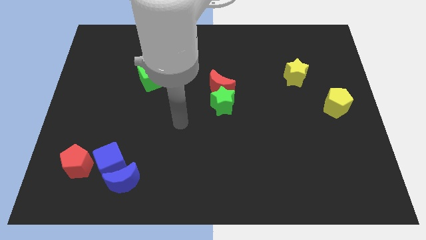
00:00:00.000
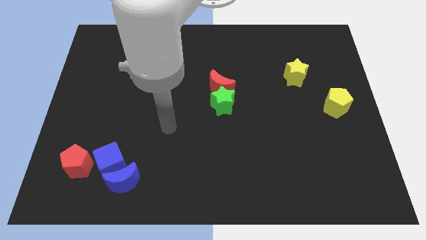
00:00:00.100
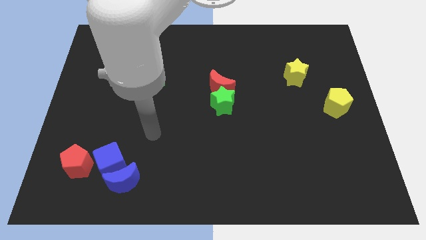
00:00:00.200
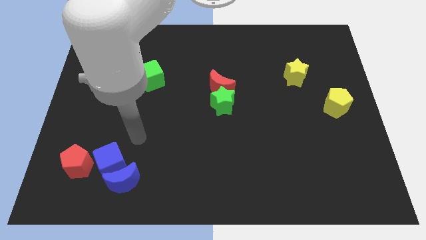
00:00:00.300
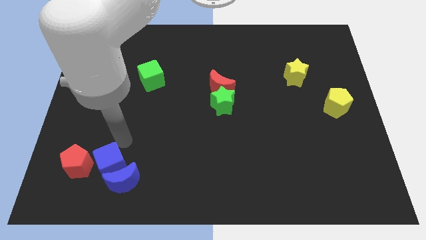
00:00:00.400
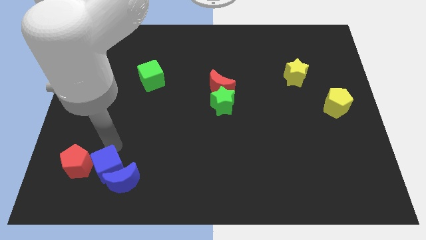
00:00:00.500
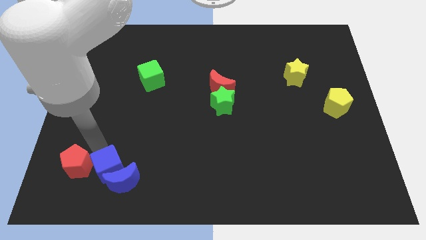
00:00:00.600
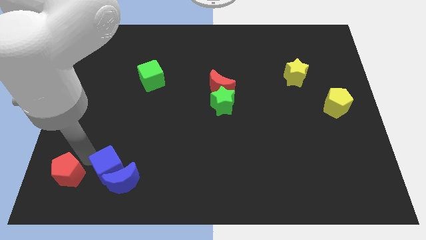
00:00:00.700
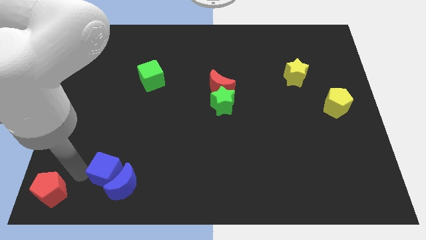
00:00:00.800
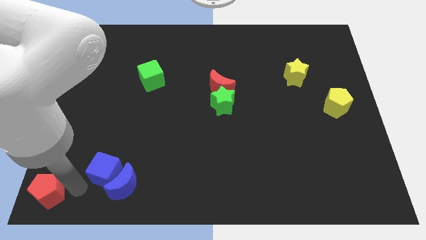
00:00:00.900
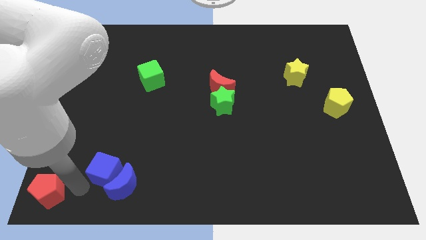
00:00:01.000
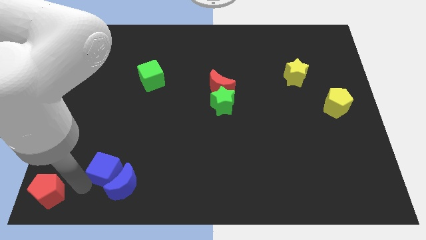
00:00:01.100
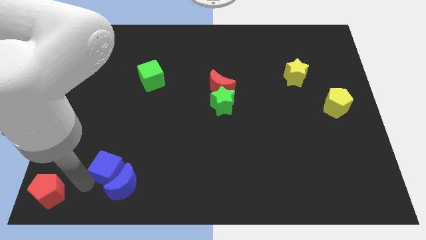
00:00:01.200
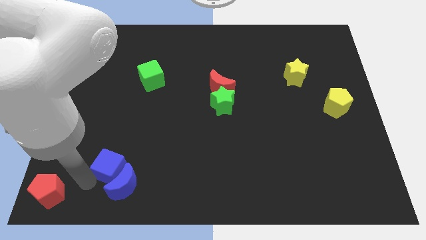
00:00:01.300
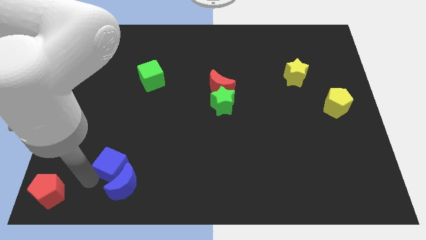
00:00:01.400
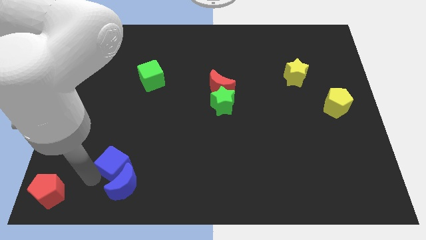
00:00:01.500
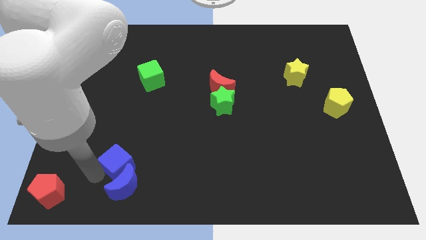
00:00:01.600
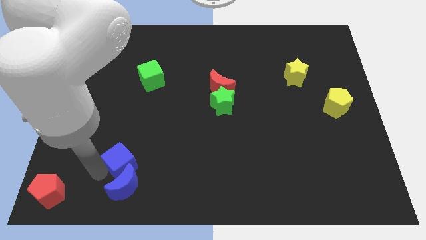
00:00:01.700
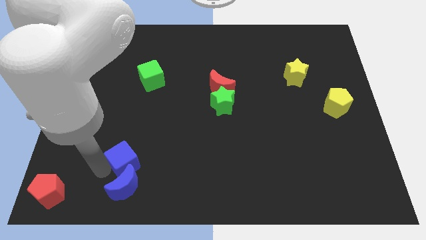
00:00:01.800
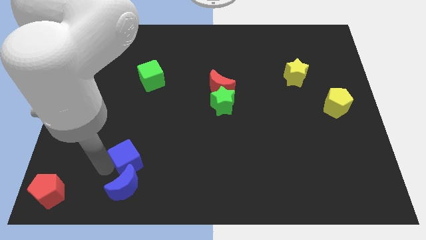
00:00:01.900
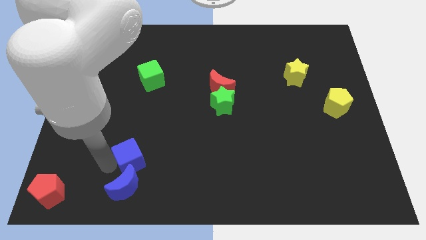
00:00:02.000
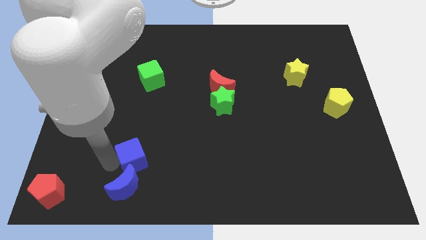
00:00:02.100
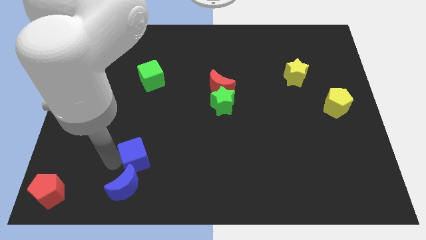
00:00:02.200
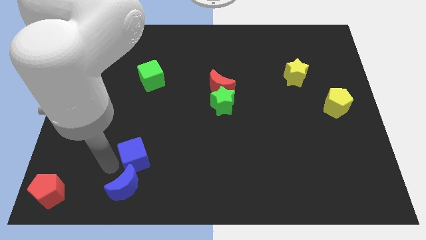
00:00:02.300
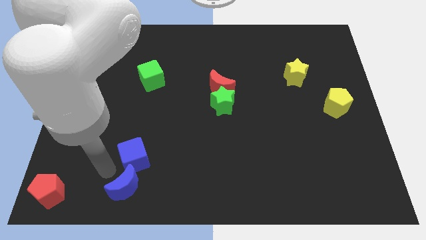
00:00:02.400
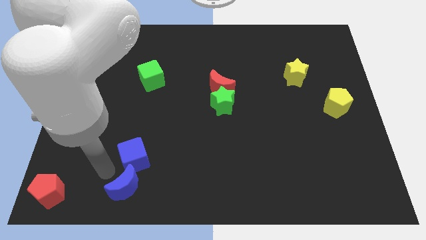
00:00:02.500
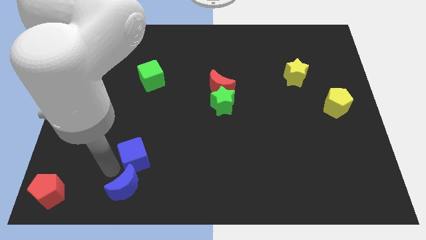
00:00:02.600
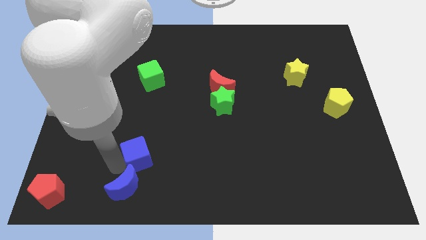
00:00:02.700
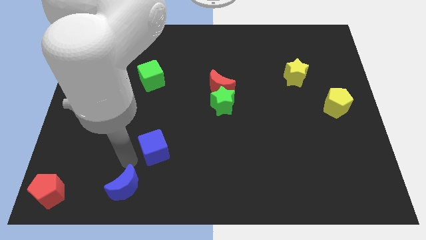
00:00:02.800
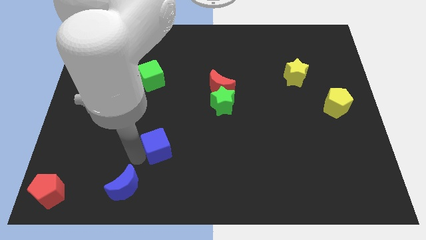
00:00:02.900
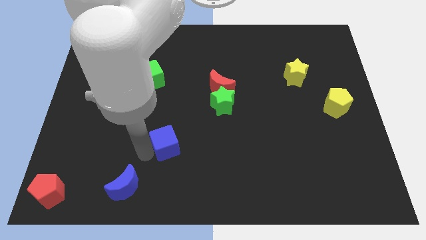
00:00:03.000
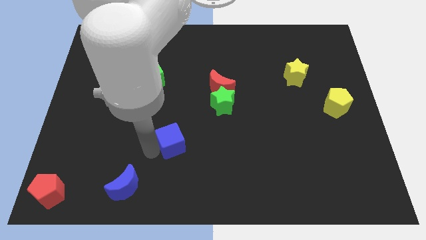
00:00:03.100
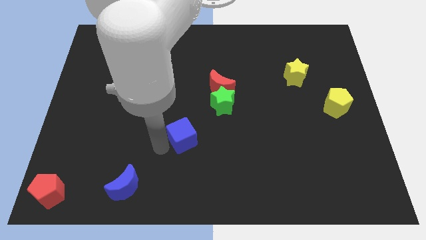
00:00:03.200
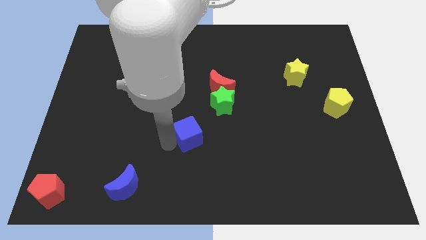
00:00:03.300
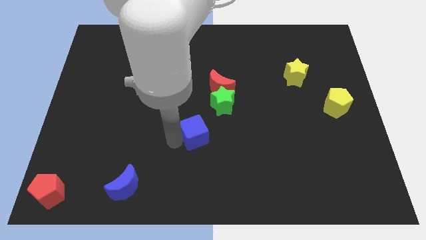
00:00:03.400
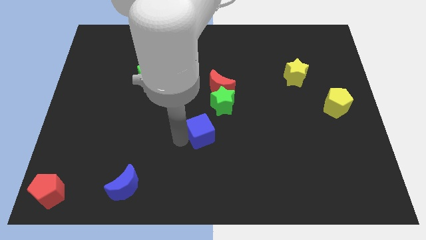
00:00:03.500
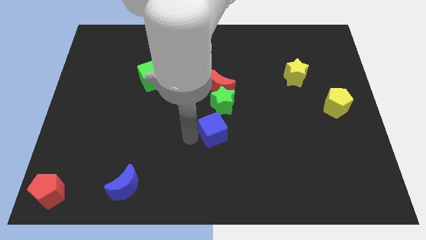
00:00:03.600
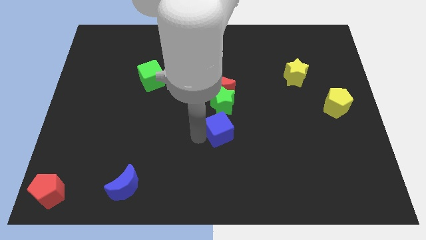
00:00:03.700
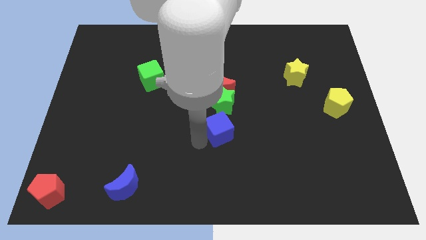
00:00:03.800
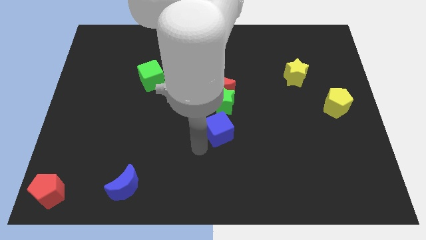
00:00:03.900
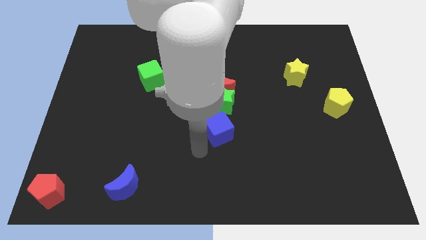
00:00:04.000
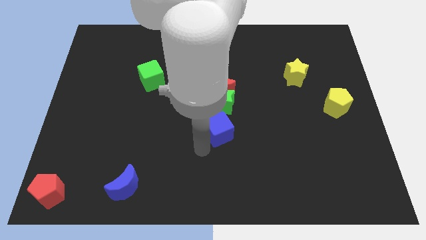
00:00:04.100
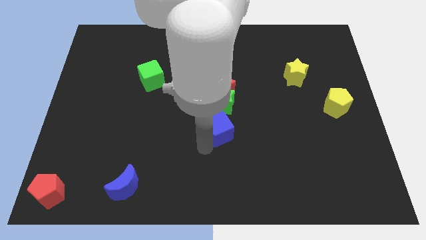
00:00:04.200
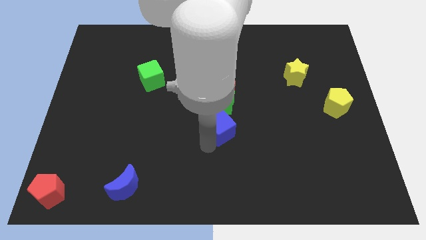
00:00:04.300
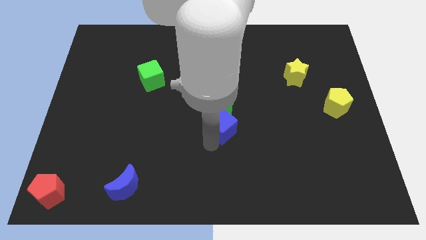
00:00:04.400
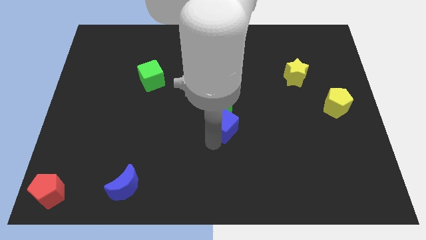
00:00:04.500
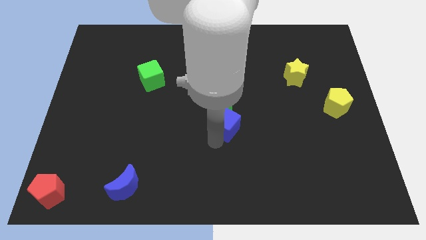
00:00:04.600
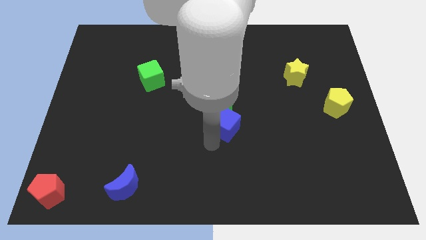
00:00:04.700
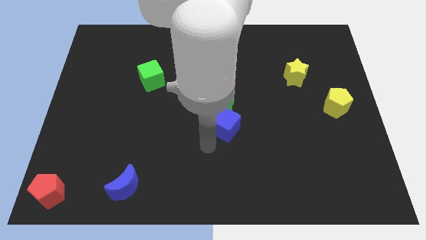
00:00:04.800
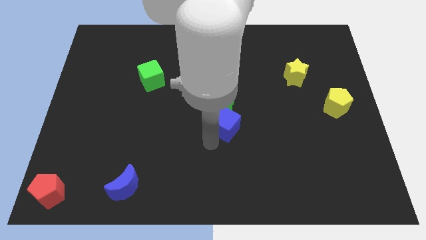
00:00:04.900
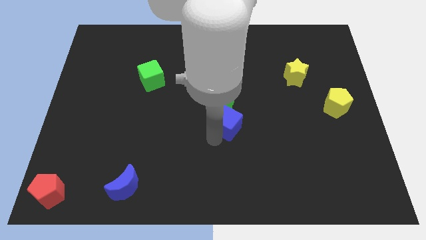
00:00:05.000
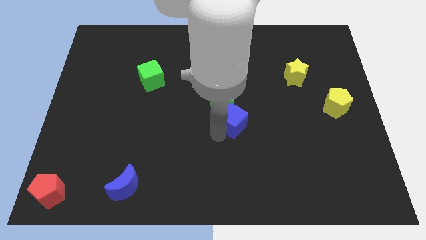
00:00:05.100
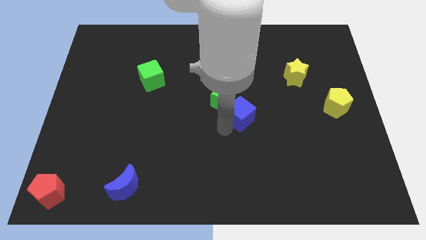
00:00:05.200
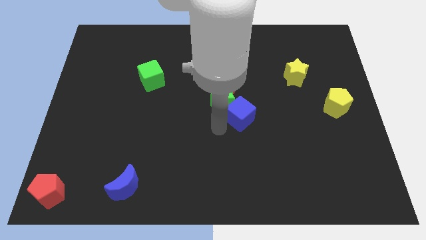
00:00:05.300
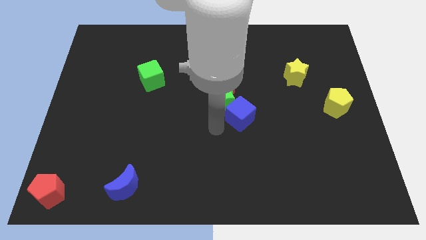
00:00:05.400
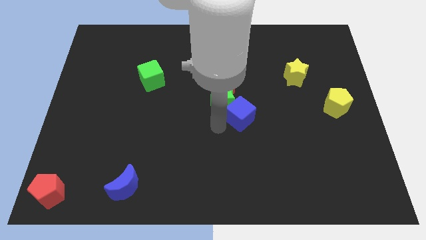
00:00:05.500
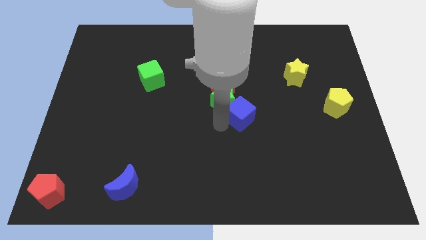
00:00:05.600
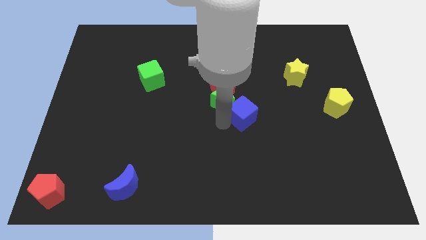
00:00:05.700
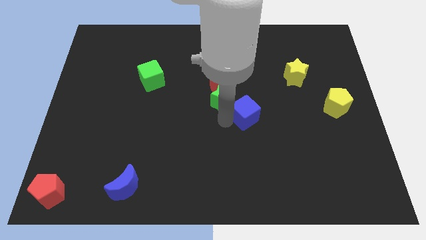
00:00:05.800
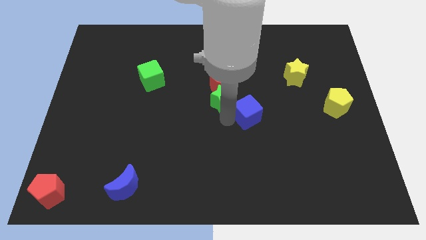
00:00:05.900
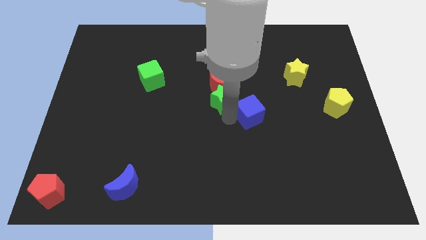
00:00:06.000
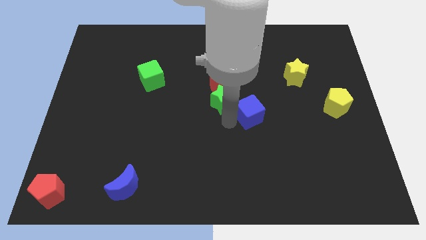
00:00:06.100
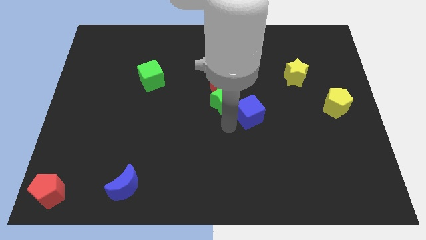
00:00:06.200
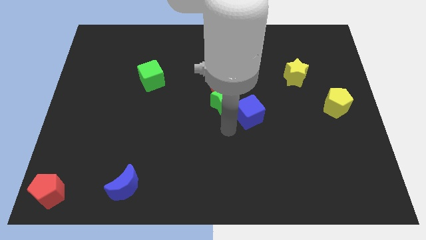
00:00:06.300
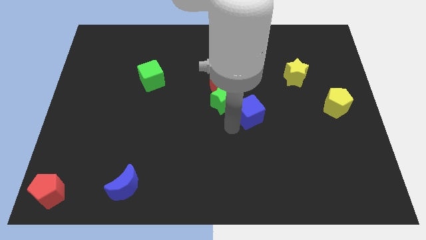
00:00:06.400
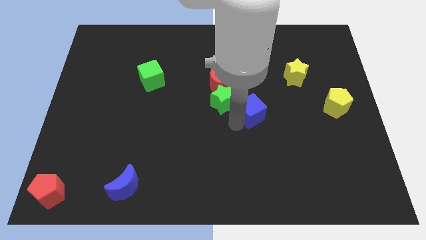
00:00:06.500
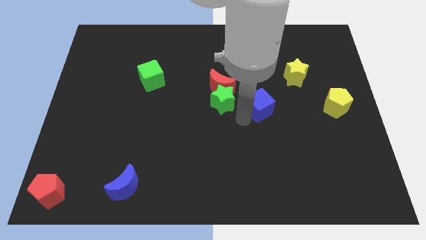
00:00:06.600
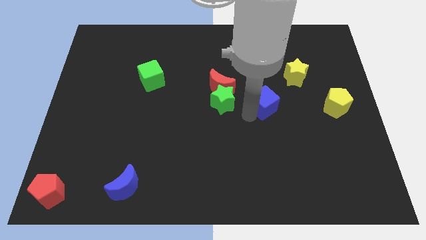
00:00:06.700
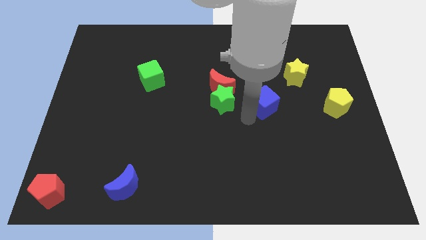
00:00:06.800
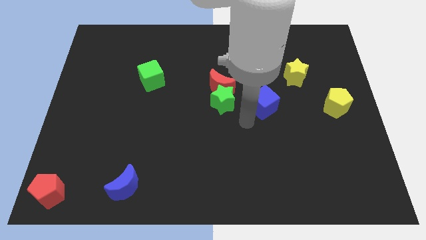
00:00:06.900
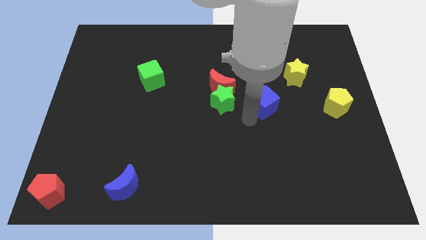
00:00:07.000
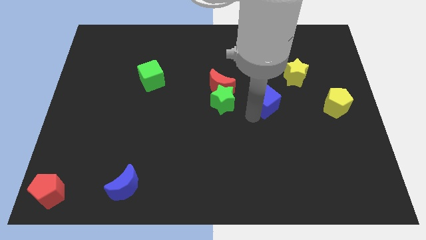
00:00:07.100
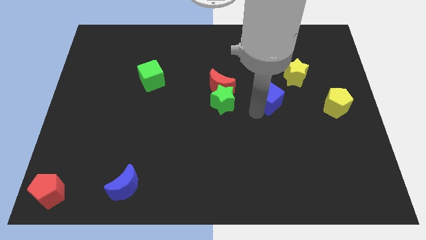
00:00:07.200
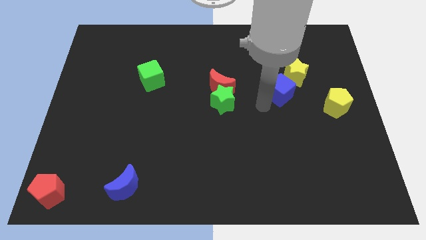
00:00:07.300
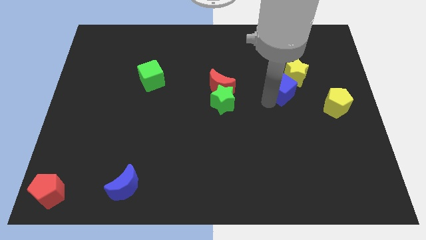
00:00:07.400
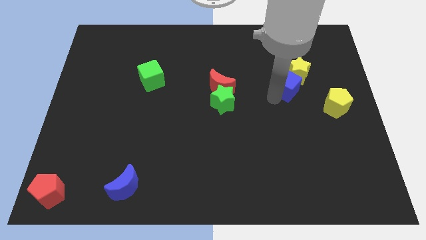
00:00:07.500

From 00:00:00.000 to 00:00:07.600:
slide the blue cube to the yellow star
